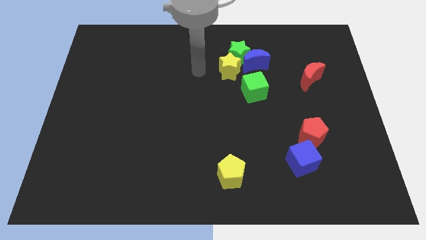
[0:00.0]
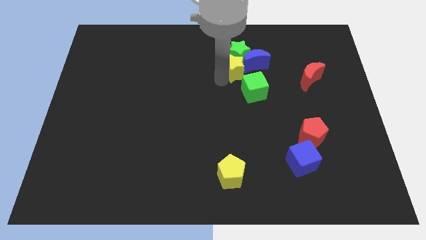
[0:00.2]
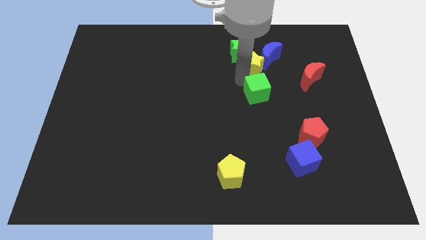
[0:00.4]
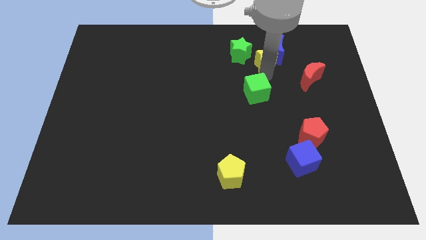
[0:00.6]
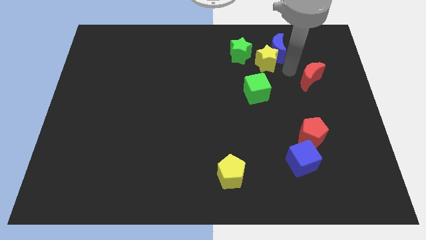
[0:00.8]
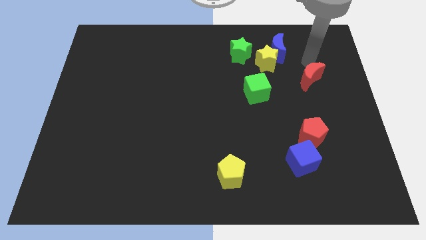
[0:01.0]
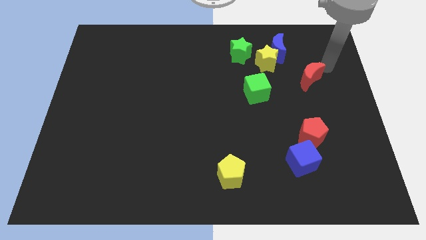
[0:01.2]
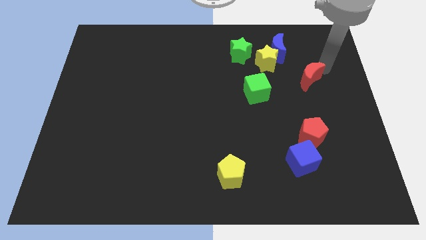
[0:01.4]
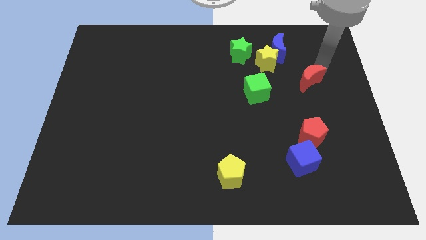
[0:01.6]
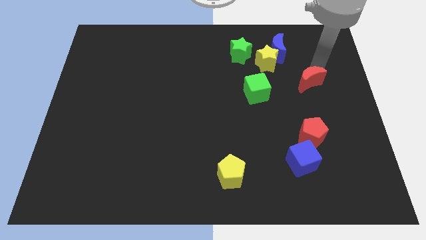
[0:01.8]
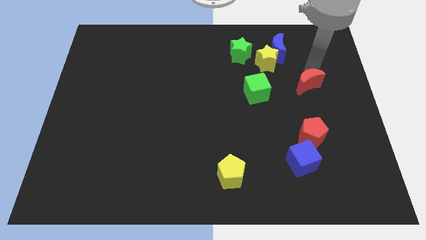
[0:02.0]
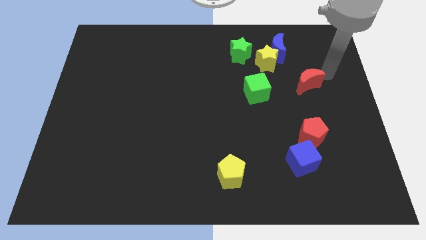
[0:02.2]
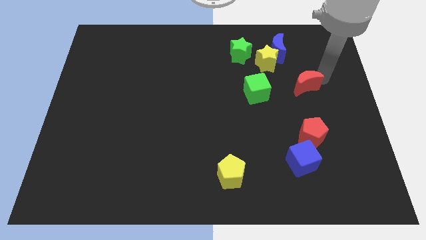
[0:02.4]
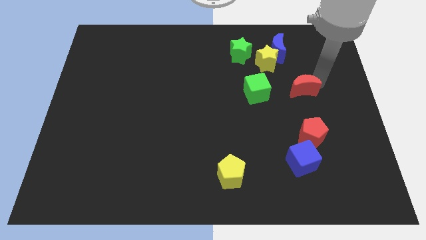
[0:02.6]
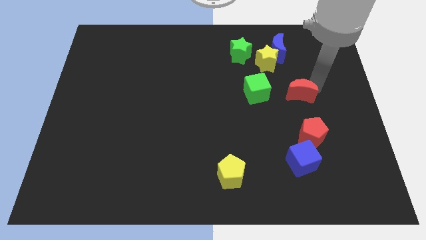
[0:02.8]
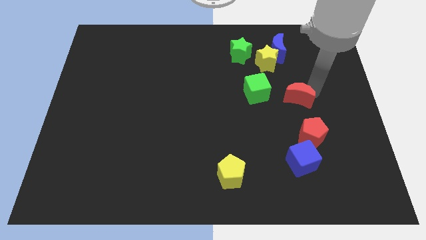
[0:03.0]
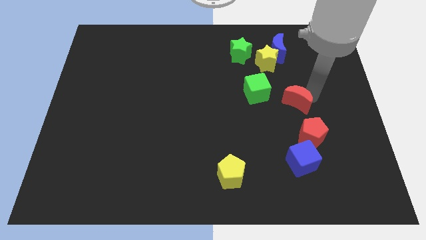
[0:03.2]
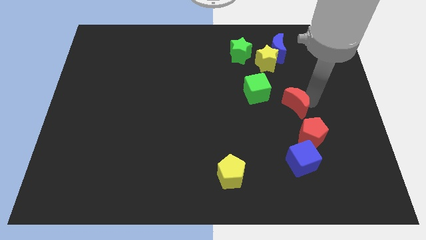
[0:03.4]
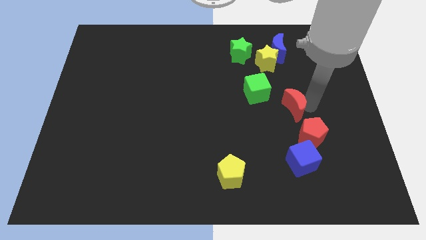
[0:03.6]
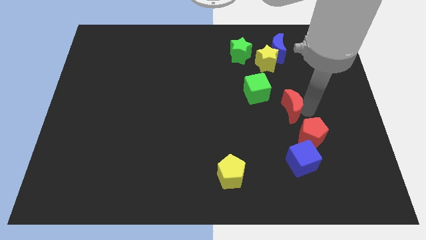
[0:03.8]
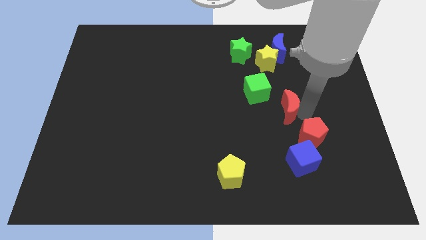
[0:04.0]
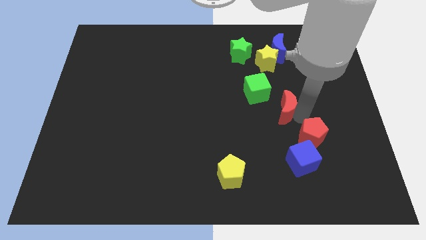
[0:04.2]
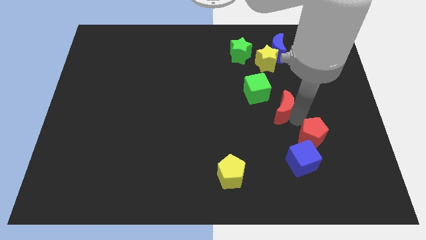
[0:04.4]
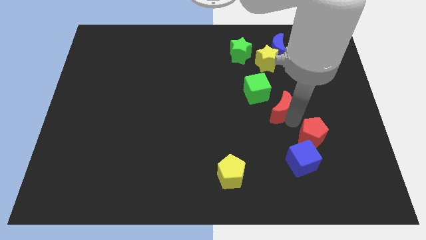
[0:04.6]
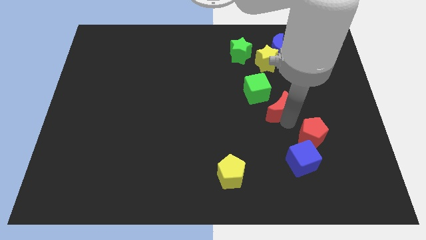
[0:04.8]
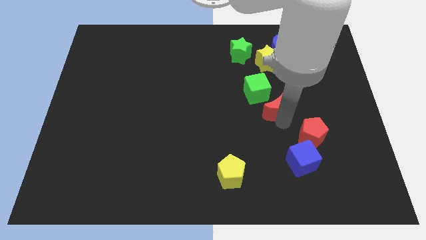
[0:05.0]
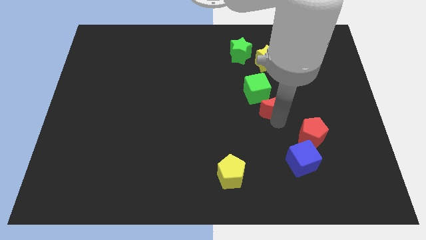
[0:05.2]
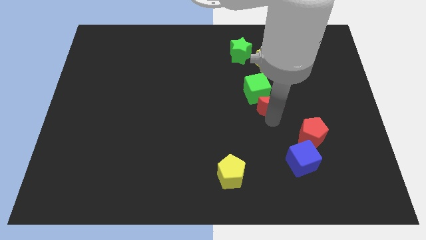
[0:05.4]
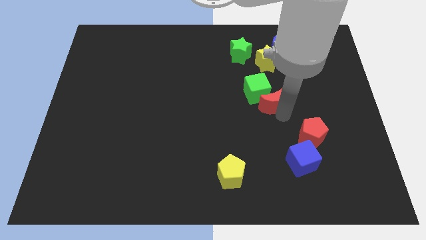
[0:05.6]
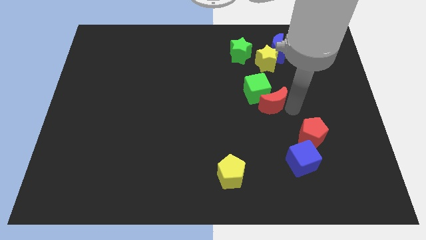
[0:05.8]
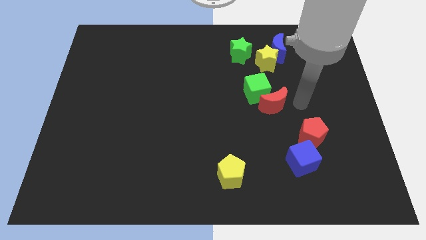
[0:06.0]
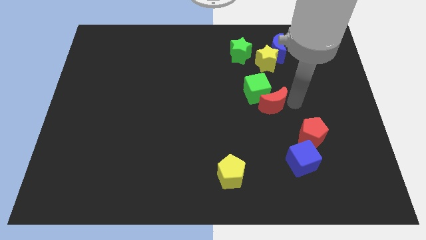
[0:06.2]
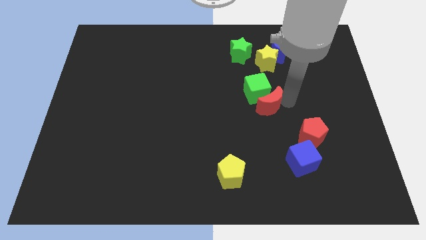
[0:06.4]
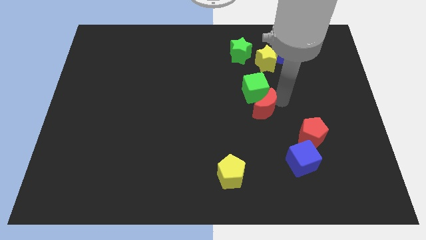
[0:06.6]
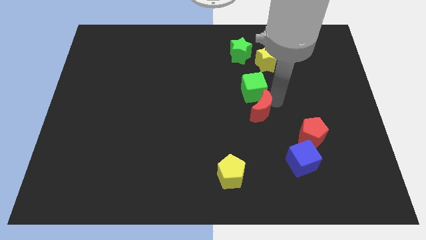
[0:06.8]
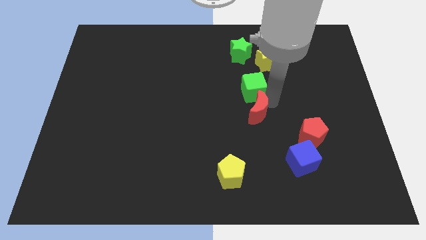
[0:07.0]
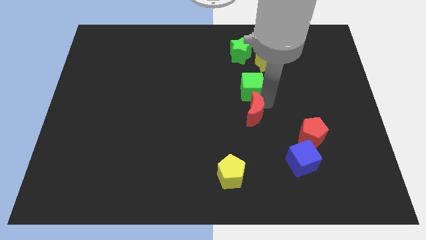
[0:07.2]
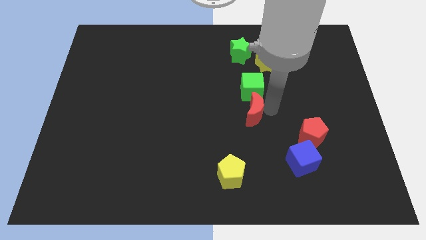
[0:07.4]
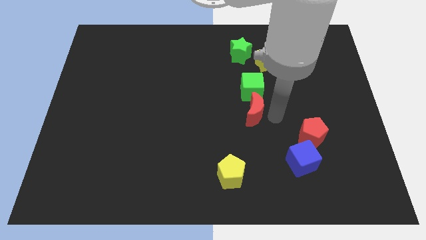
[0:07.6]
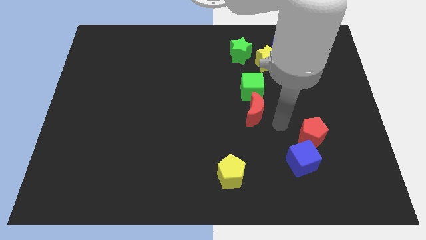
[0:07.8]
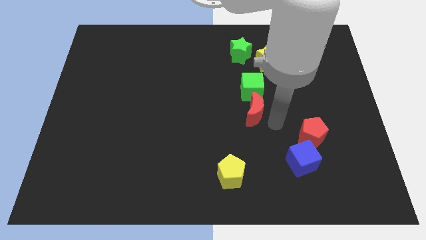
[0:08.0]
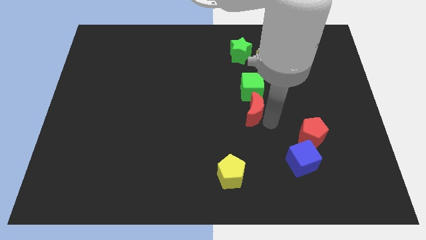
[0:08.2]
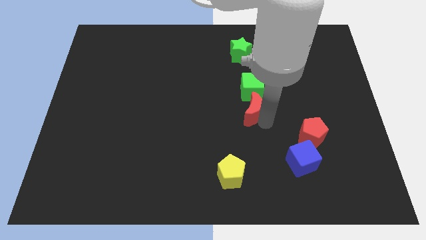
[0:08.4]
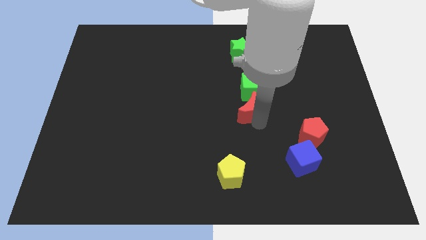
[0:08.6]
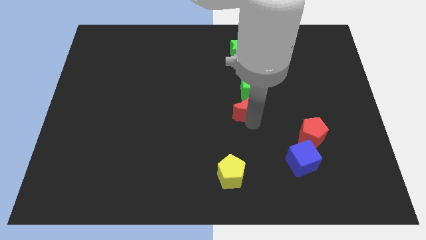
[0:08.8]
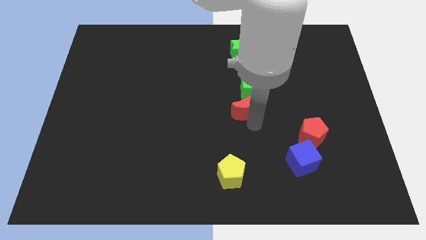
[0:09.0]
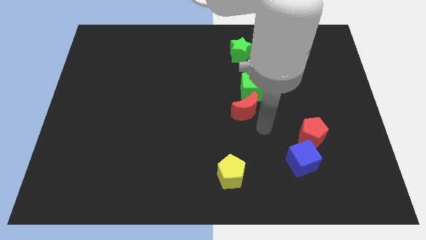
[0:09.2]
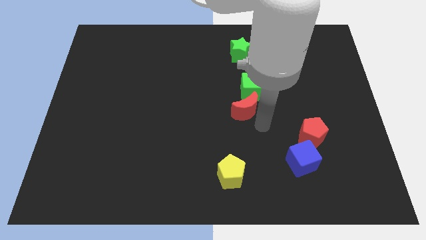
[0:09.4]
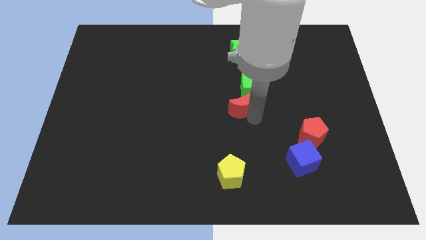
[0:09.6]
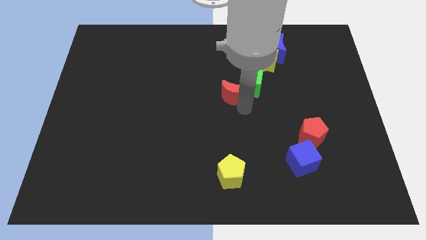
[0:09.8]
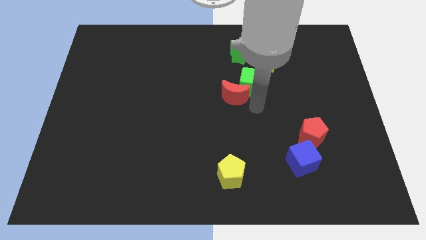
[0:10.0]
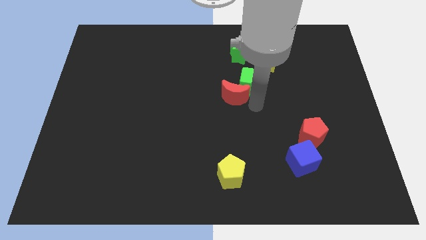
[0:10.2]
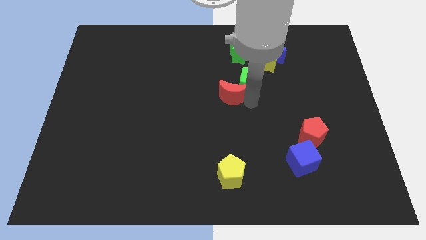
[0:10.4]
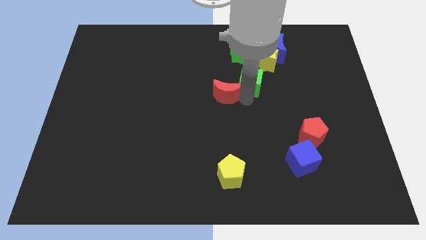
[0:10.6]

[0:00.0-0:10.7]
move the red moon left

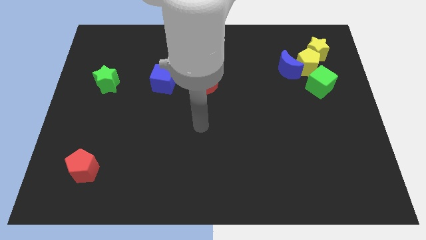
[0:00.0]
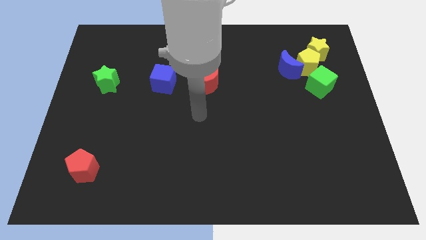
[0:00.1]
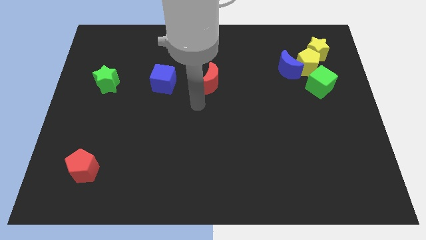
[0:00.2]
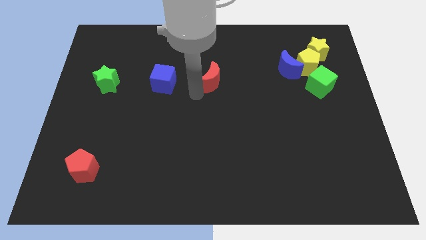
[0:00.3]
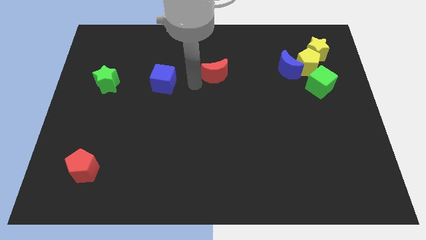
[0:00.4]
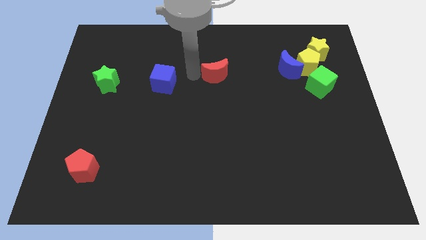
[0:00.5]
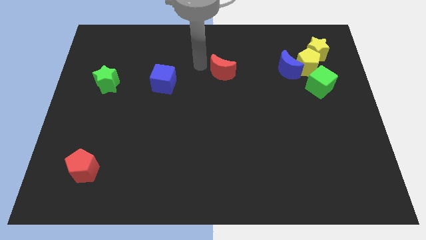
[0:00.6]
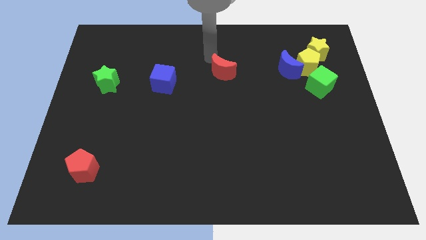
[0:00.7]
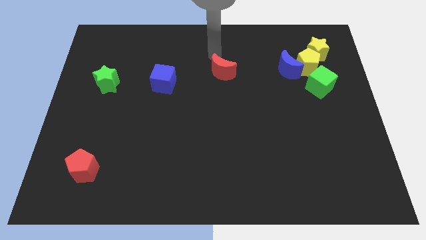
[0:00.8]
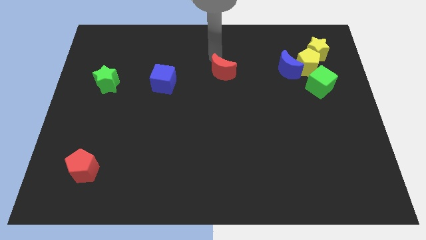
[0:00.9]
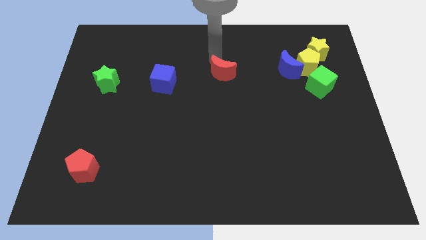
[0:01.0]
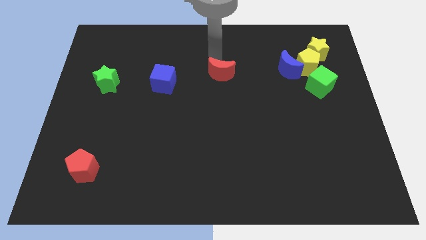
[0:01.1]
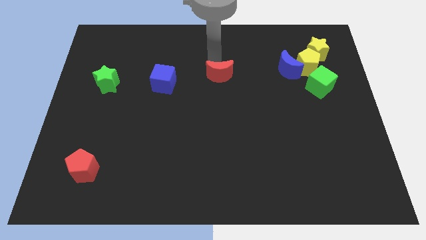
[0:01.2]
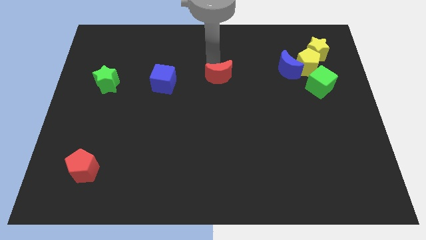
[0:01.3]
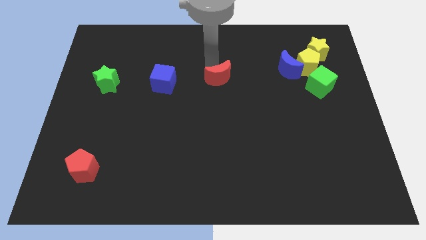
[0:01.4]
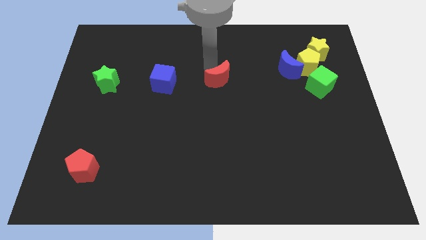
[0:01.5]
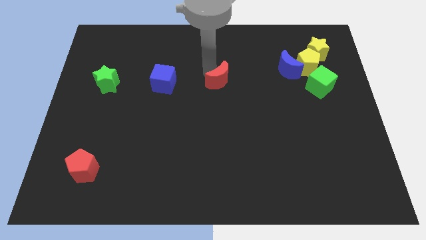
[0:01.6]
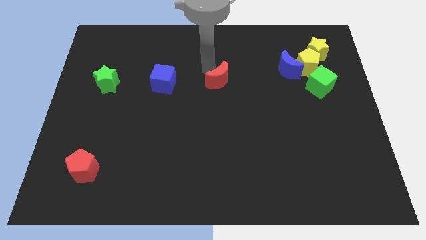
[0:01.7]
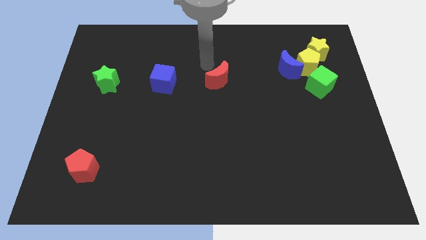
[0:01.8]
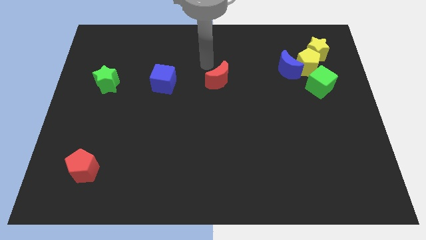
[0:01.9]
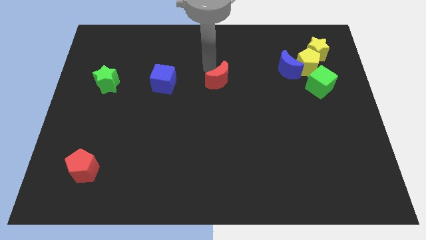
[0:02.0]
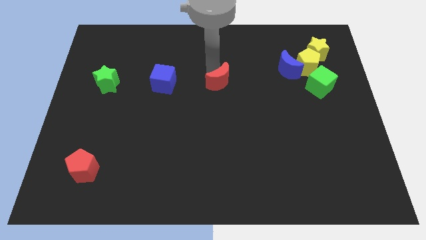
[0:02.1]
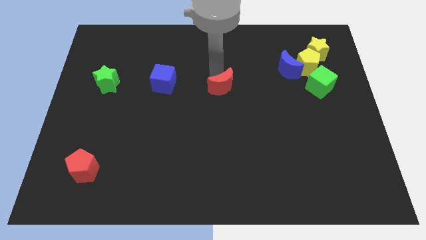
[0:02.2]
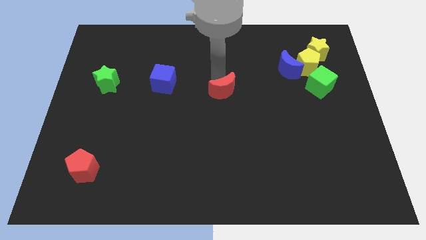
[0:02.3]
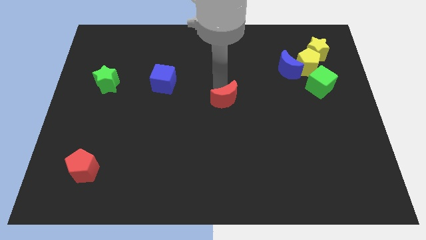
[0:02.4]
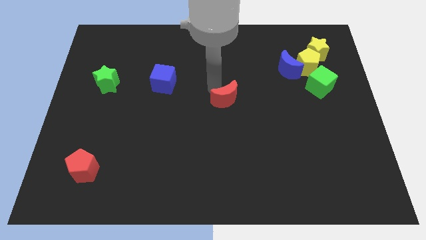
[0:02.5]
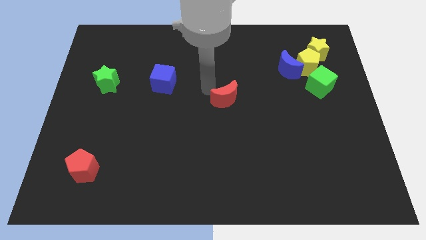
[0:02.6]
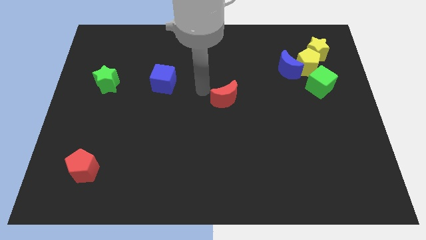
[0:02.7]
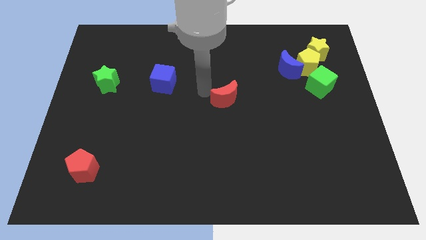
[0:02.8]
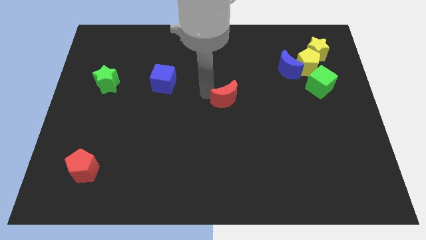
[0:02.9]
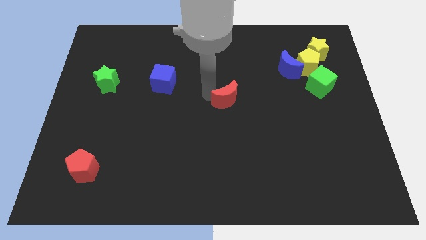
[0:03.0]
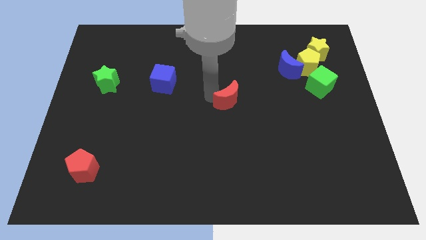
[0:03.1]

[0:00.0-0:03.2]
slide the red moon a little bit down and then right
